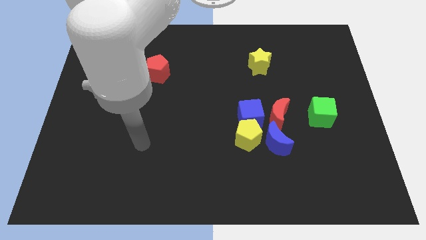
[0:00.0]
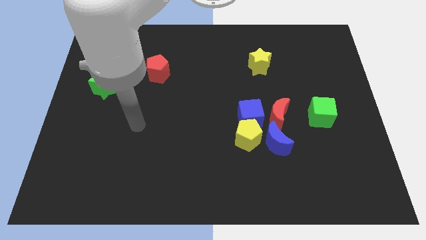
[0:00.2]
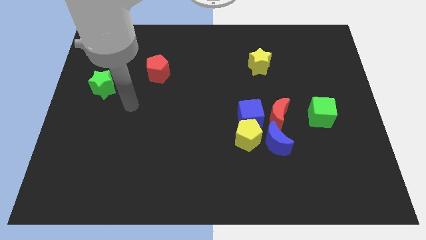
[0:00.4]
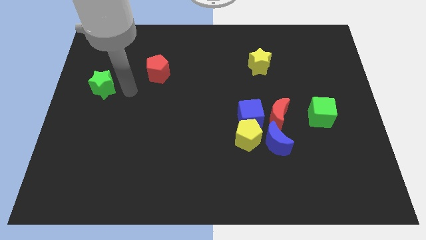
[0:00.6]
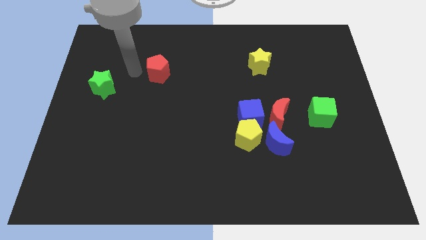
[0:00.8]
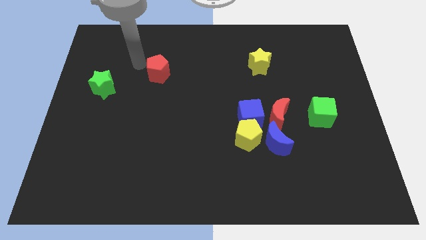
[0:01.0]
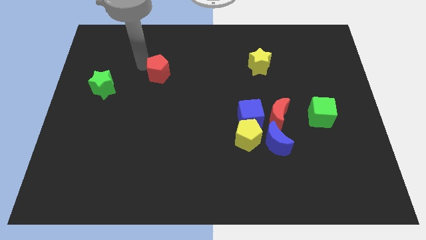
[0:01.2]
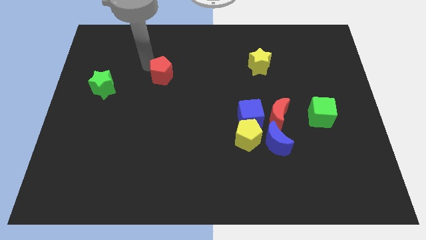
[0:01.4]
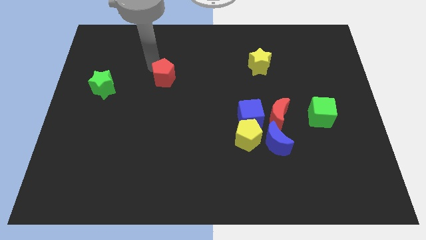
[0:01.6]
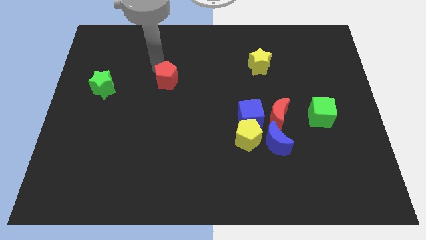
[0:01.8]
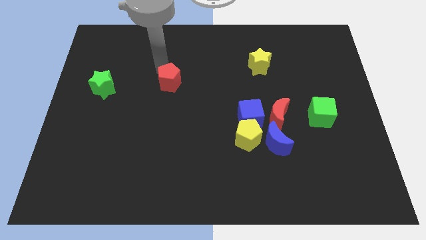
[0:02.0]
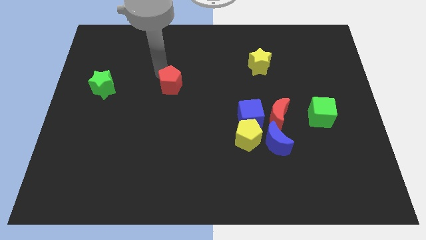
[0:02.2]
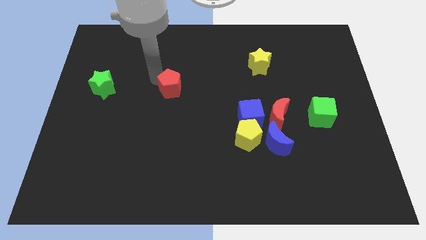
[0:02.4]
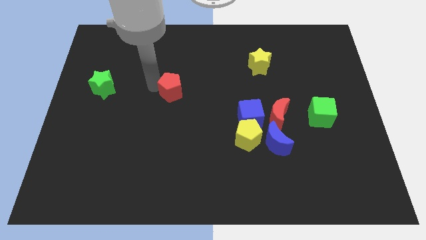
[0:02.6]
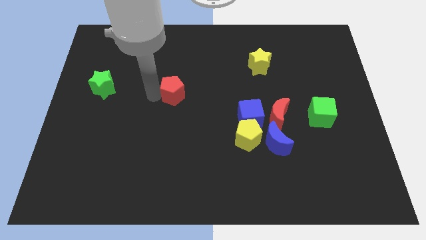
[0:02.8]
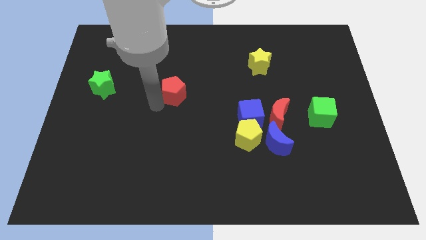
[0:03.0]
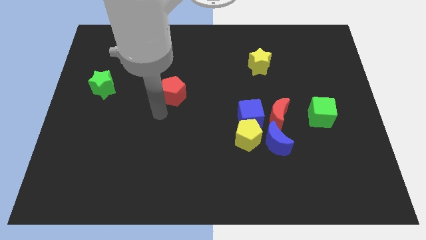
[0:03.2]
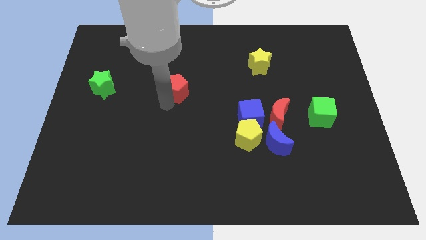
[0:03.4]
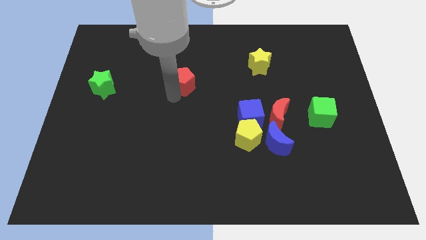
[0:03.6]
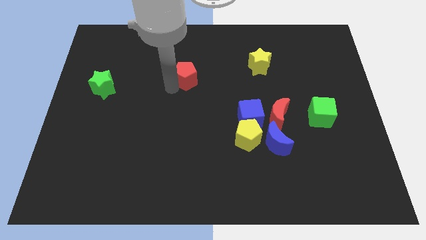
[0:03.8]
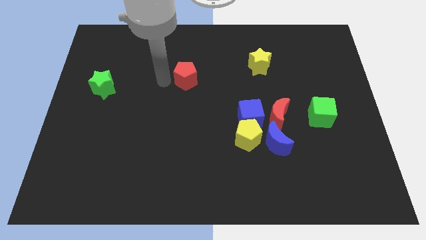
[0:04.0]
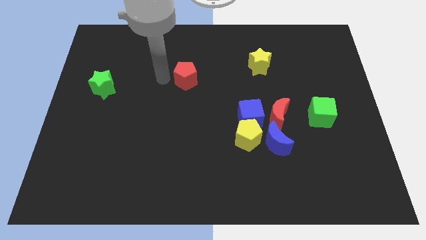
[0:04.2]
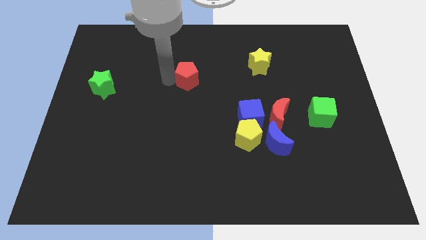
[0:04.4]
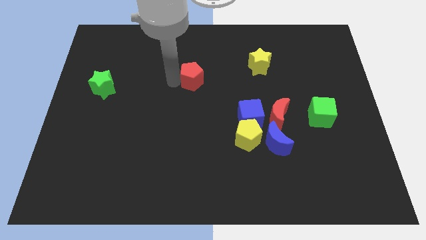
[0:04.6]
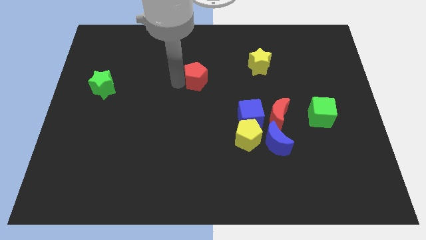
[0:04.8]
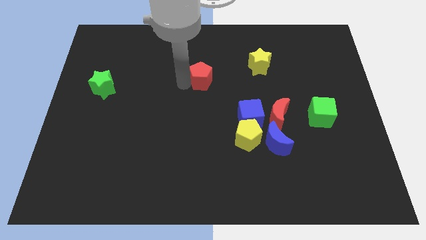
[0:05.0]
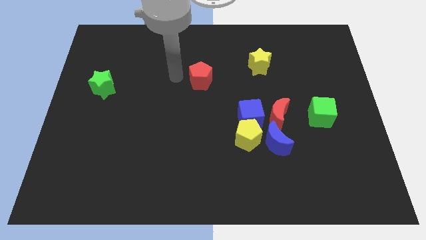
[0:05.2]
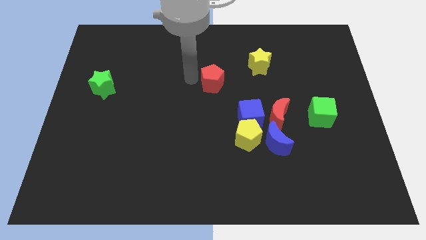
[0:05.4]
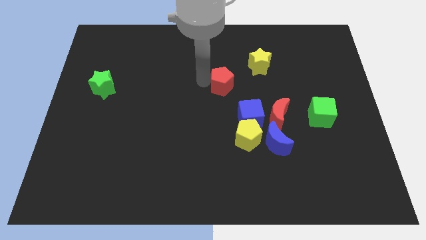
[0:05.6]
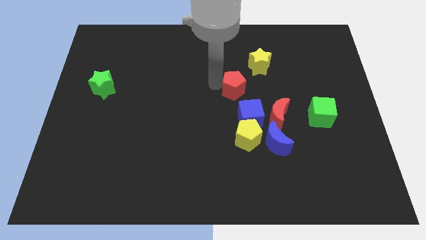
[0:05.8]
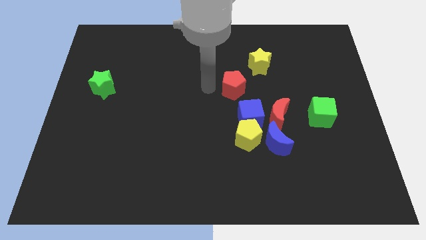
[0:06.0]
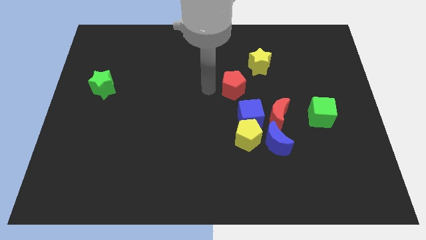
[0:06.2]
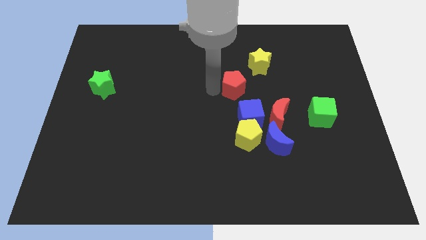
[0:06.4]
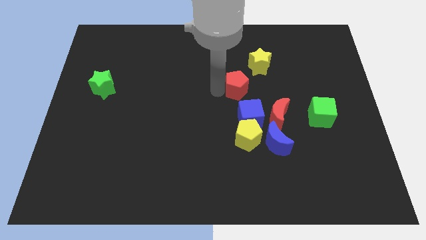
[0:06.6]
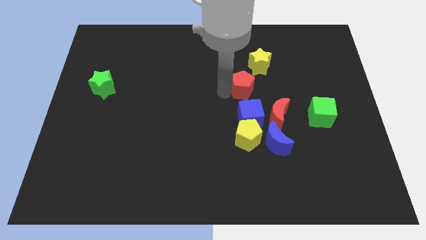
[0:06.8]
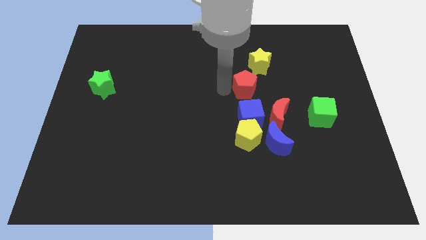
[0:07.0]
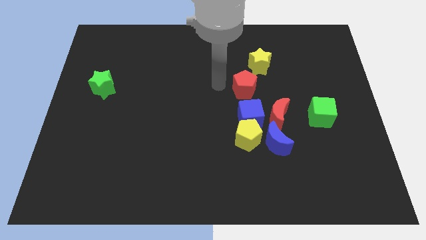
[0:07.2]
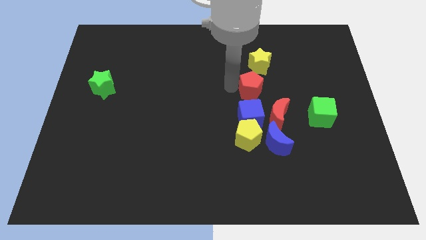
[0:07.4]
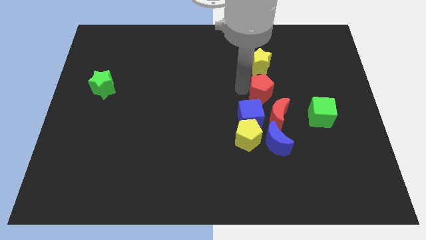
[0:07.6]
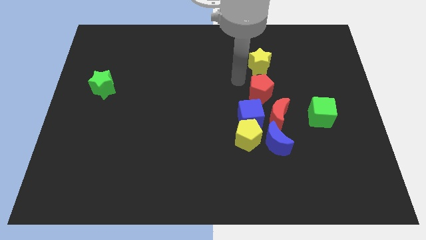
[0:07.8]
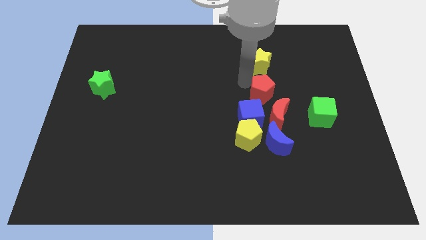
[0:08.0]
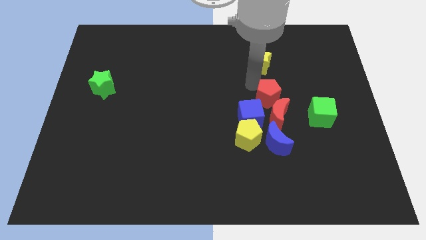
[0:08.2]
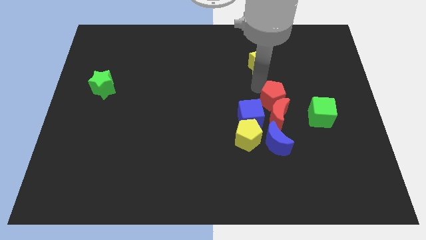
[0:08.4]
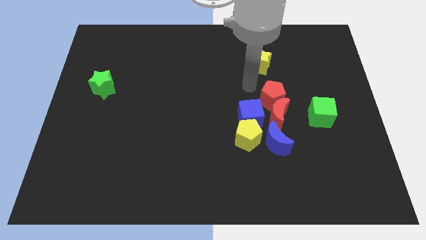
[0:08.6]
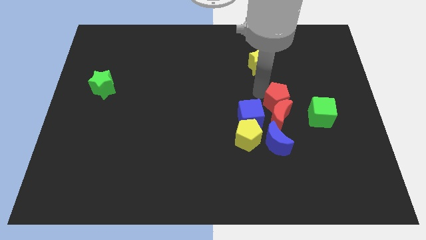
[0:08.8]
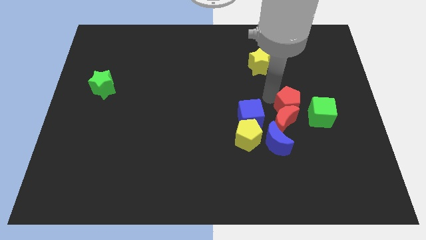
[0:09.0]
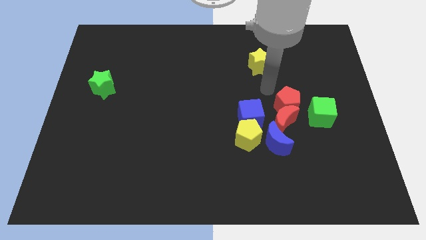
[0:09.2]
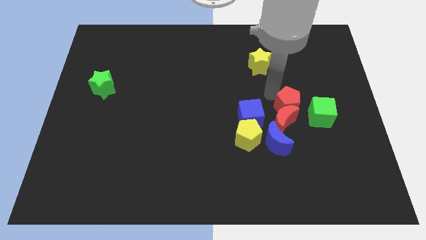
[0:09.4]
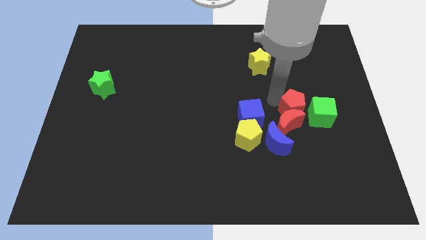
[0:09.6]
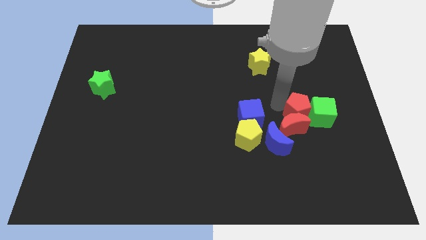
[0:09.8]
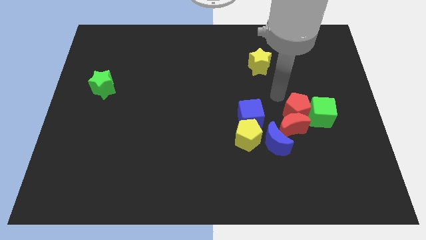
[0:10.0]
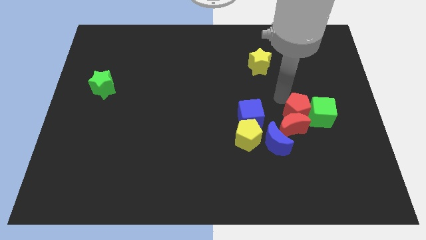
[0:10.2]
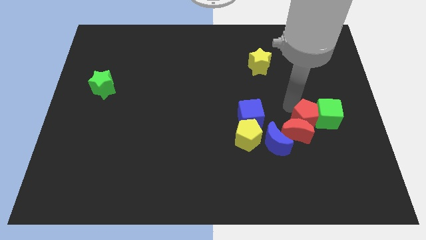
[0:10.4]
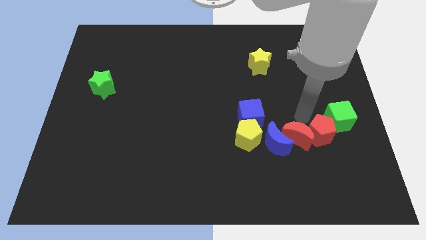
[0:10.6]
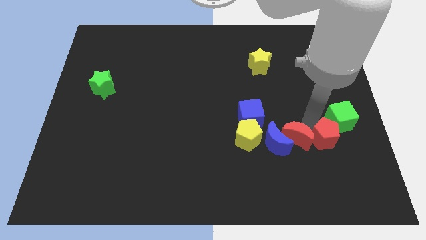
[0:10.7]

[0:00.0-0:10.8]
move the red pentagon to the bottom of the green cube
